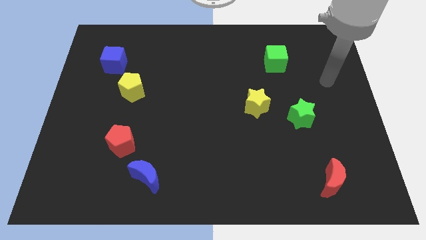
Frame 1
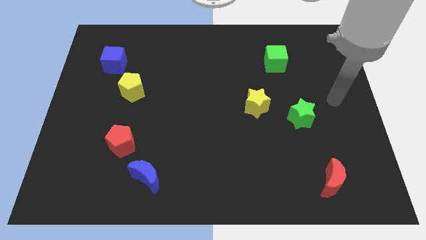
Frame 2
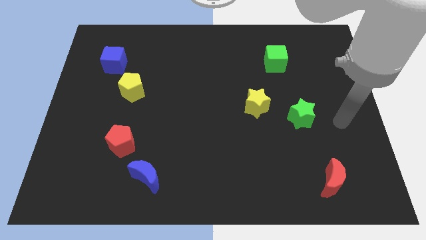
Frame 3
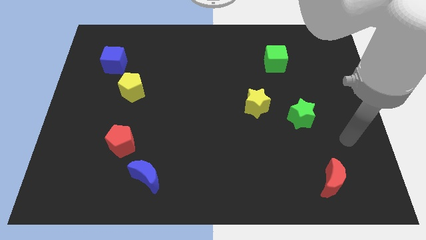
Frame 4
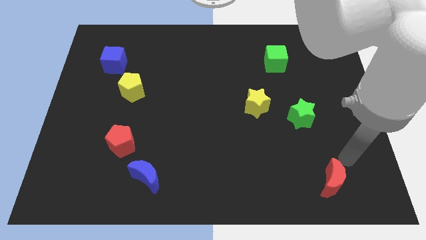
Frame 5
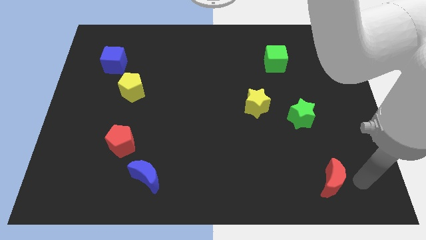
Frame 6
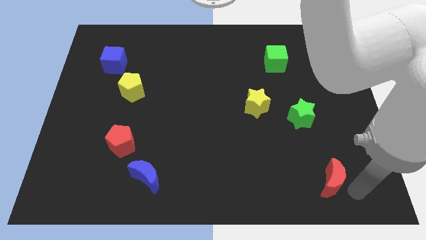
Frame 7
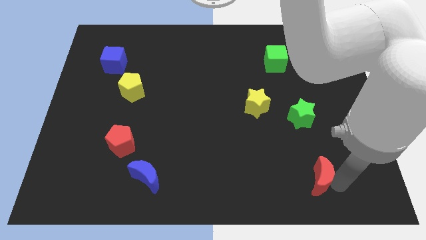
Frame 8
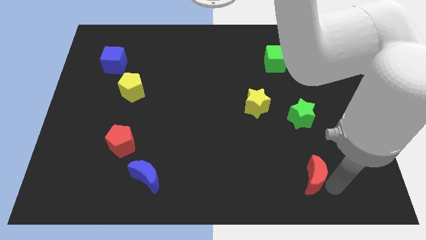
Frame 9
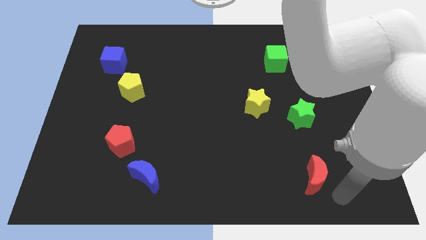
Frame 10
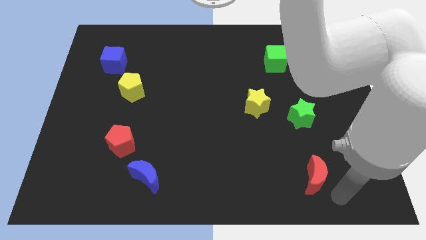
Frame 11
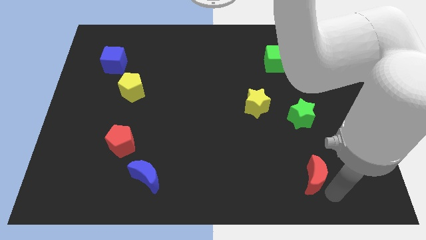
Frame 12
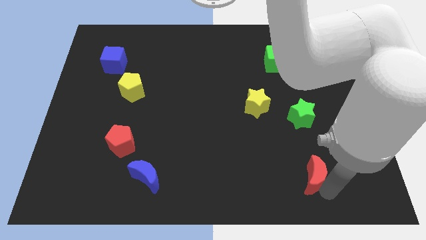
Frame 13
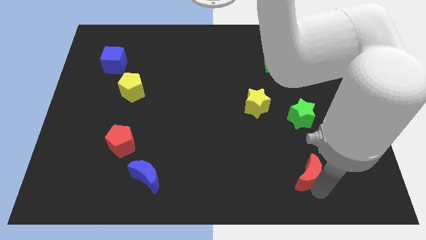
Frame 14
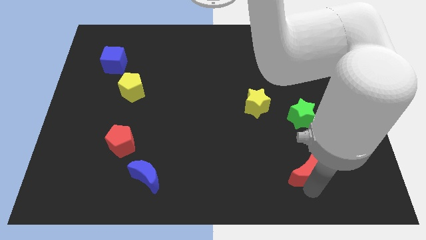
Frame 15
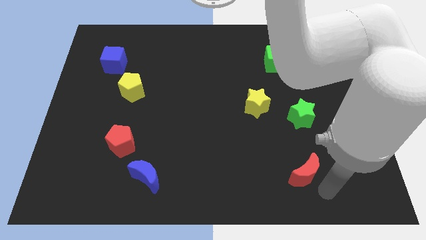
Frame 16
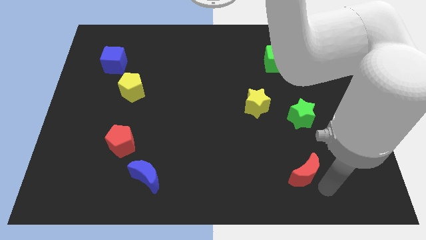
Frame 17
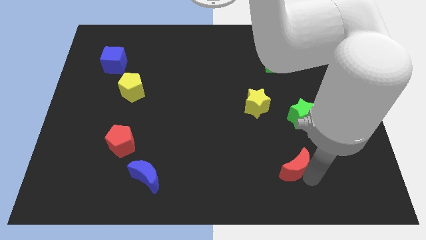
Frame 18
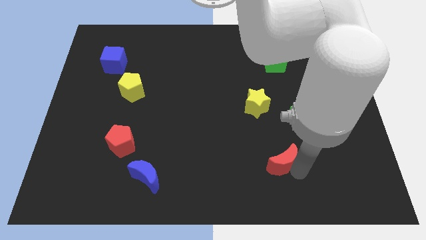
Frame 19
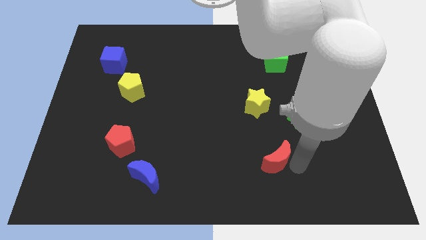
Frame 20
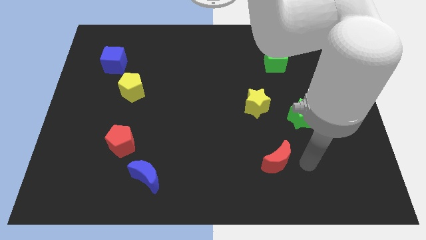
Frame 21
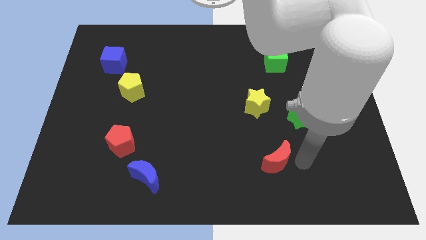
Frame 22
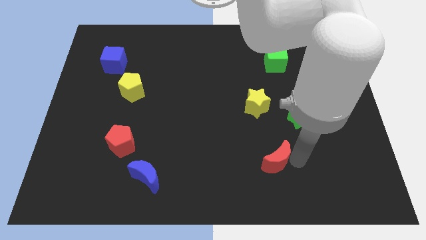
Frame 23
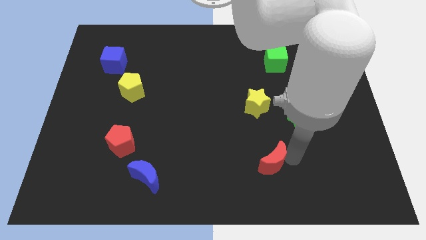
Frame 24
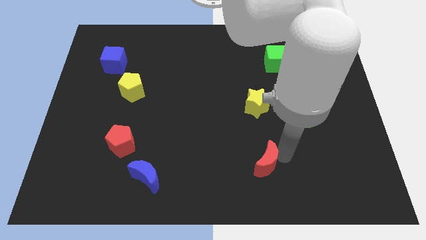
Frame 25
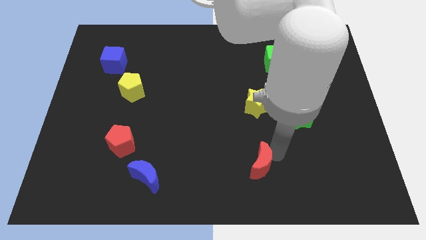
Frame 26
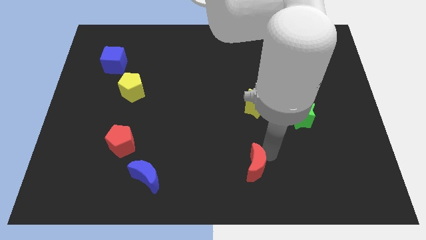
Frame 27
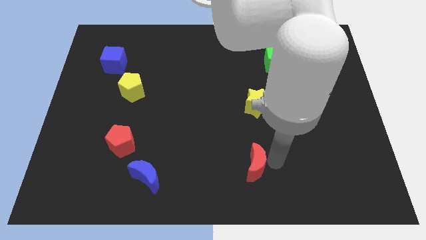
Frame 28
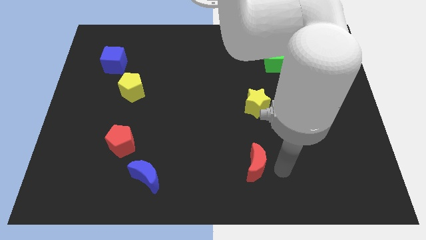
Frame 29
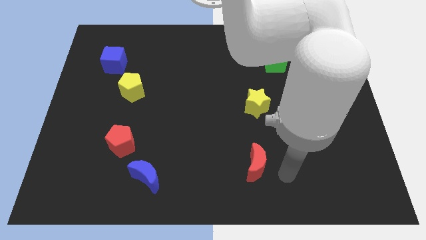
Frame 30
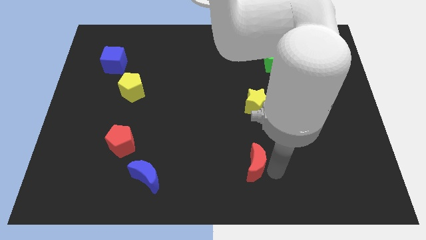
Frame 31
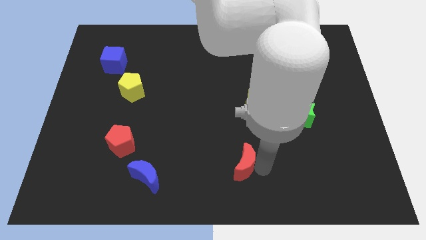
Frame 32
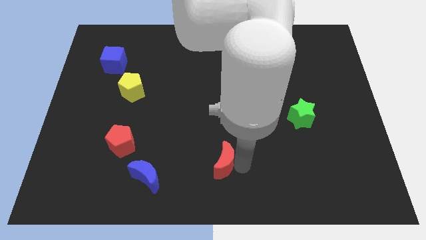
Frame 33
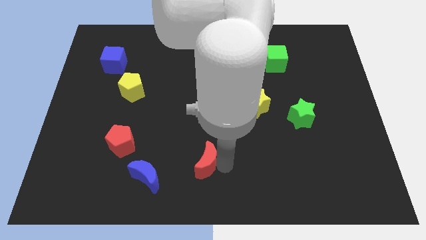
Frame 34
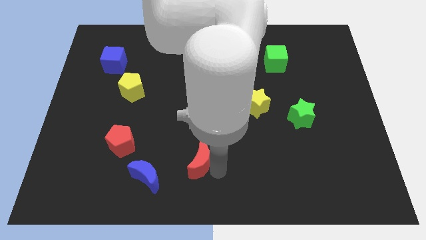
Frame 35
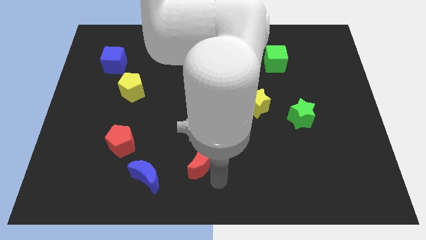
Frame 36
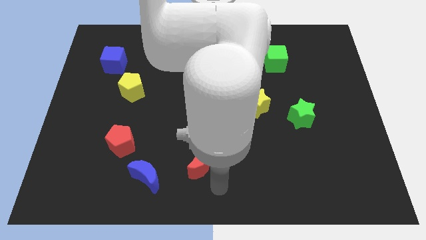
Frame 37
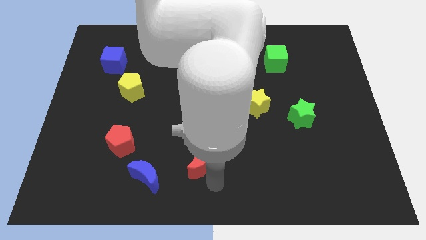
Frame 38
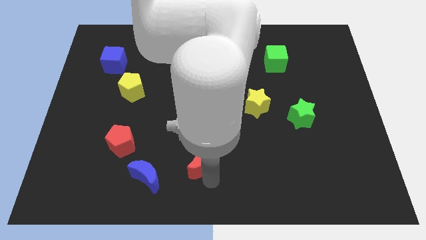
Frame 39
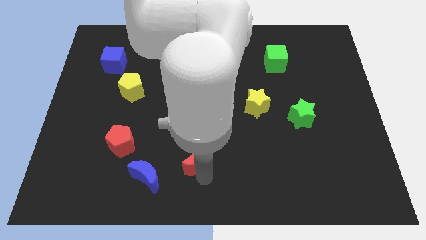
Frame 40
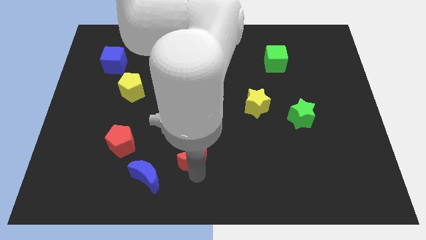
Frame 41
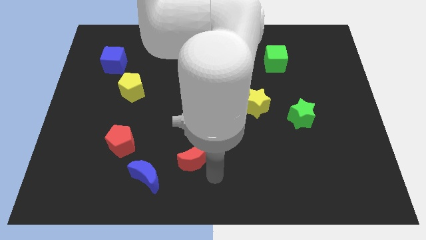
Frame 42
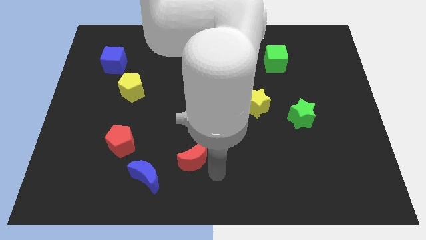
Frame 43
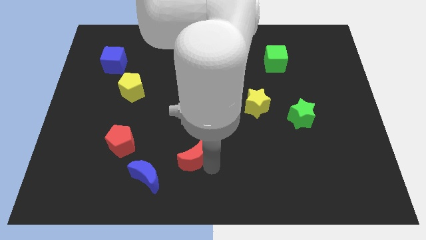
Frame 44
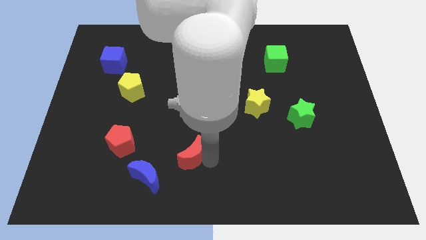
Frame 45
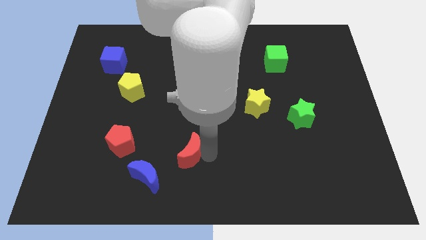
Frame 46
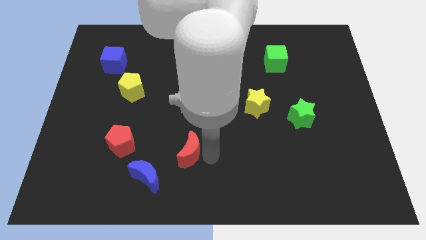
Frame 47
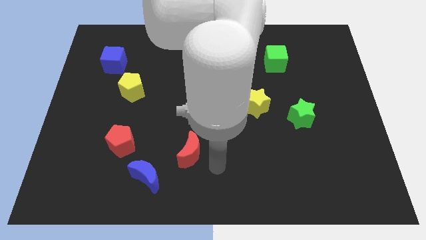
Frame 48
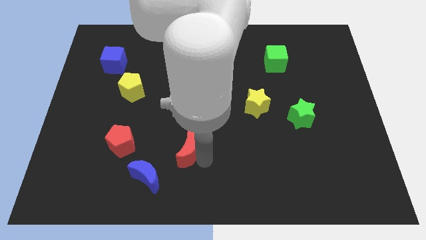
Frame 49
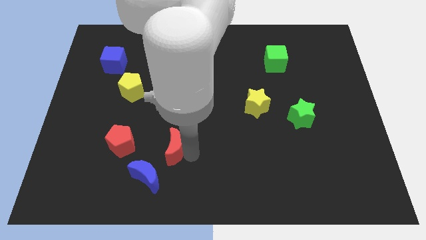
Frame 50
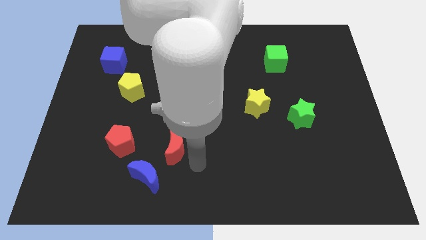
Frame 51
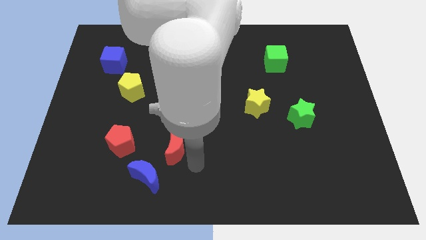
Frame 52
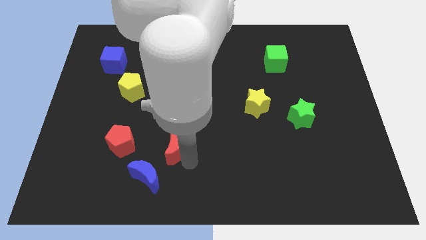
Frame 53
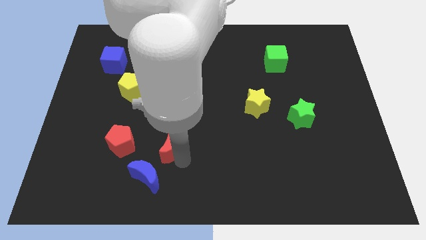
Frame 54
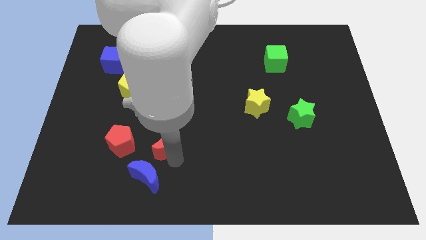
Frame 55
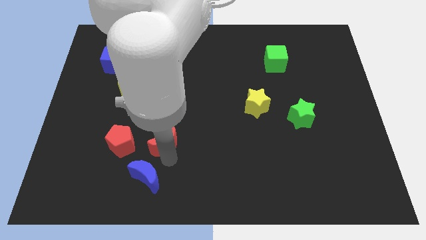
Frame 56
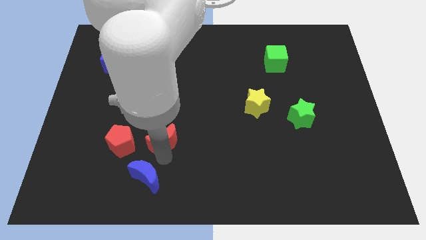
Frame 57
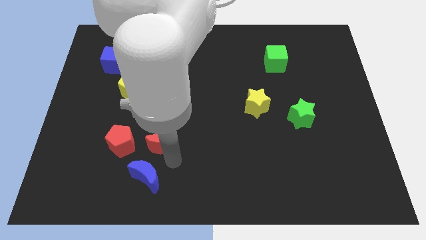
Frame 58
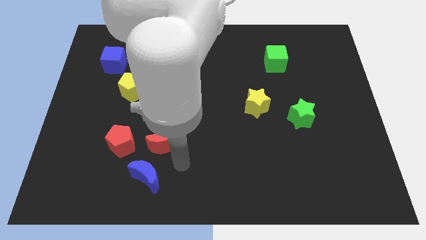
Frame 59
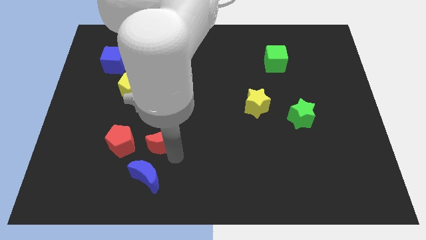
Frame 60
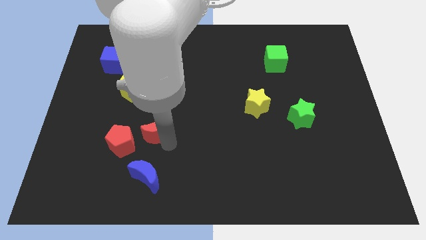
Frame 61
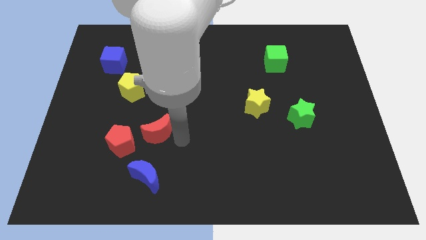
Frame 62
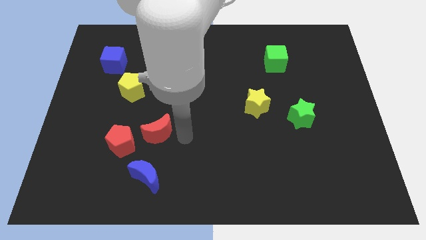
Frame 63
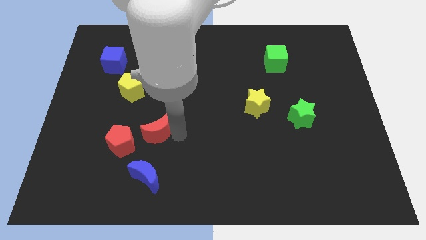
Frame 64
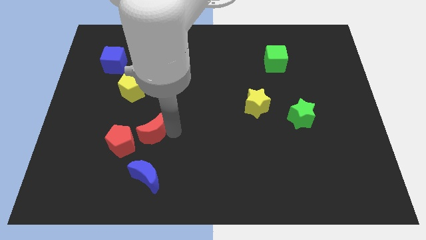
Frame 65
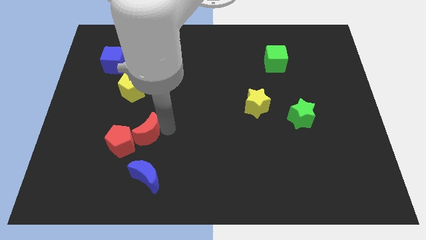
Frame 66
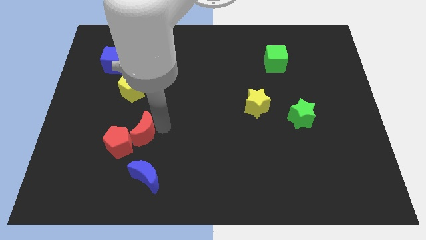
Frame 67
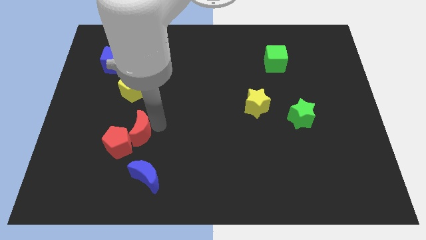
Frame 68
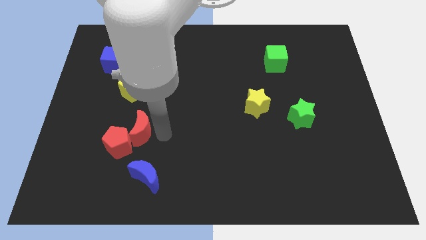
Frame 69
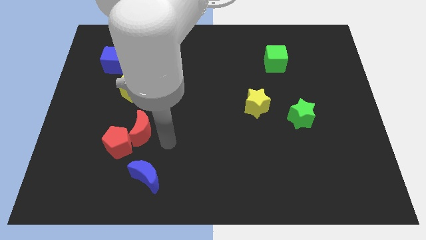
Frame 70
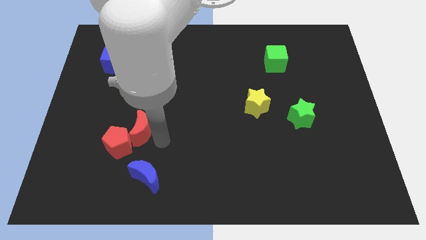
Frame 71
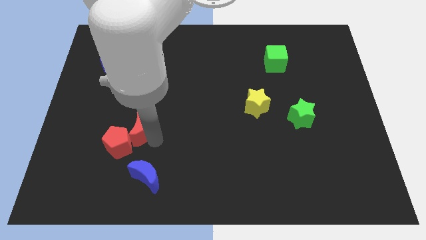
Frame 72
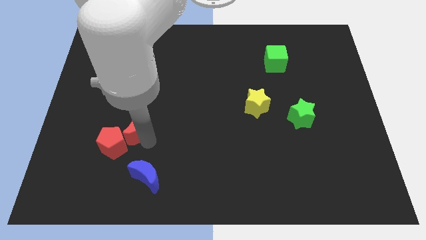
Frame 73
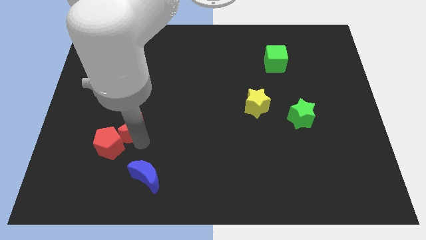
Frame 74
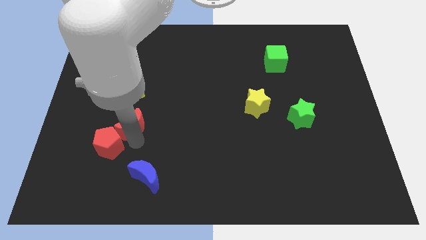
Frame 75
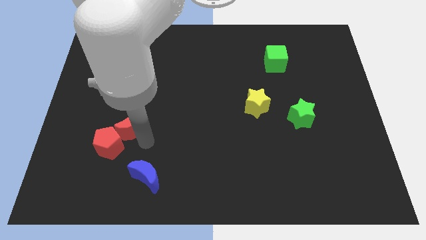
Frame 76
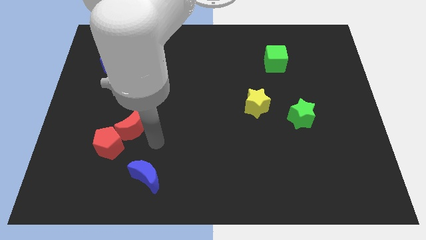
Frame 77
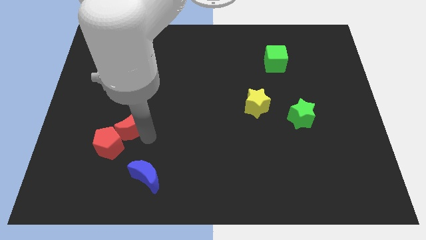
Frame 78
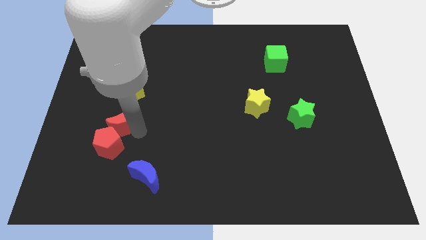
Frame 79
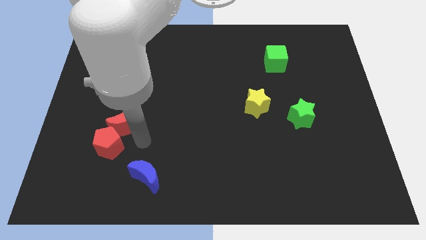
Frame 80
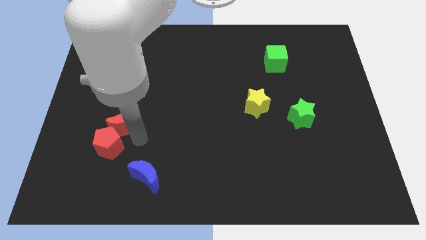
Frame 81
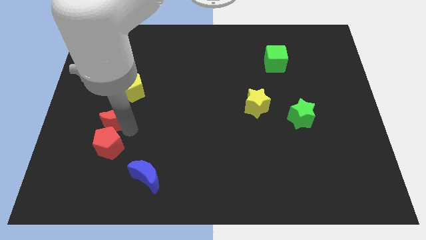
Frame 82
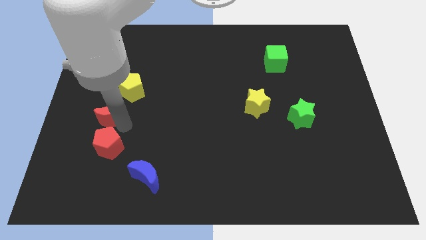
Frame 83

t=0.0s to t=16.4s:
slide the red moon diagonally down and to the left of the yellow pentagon
